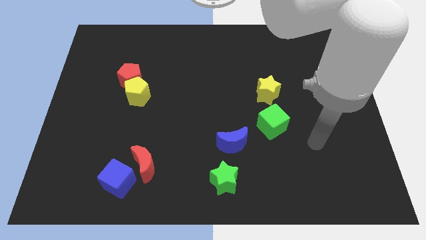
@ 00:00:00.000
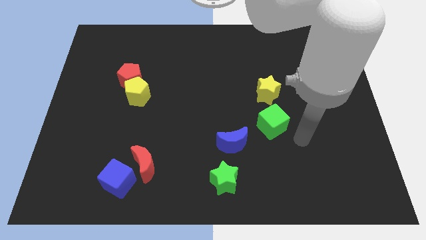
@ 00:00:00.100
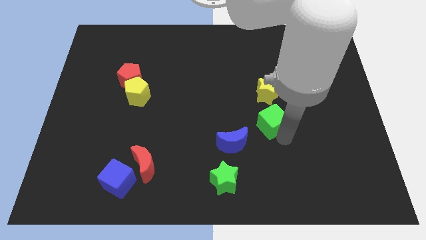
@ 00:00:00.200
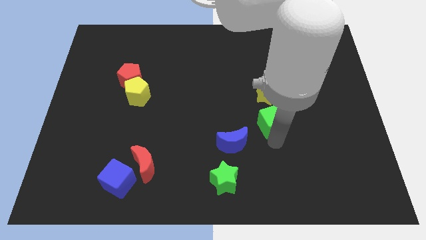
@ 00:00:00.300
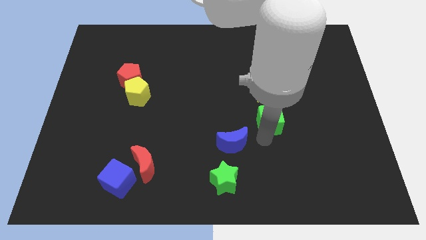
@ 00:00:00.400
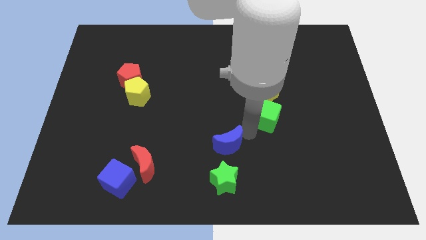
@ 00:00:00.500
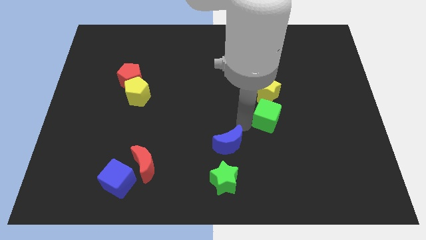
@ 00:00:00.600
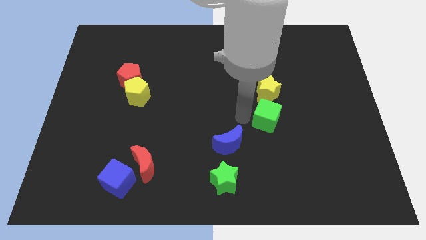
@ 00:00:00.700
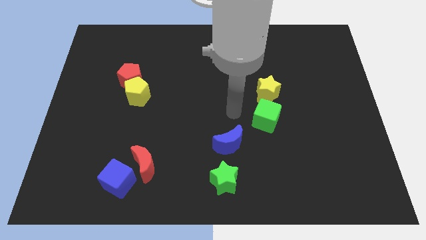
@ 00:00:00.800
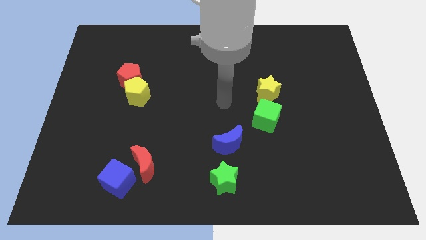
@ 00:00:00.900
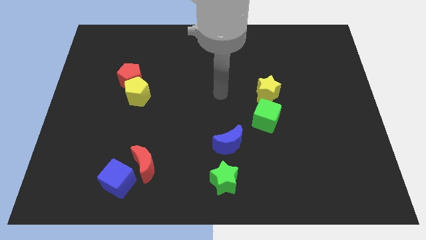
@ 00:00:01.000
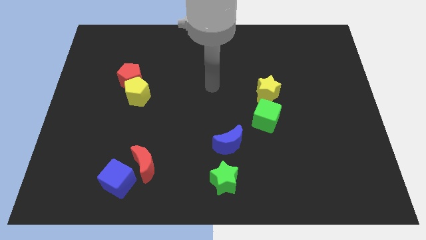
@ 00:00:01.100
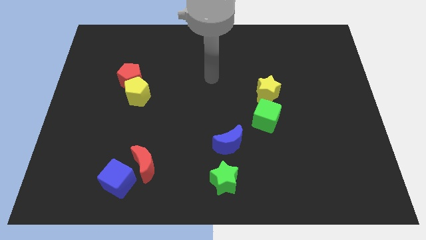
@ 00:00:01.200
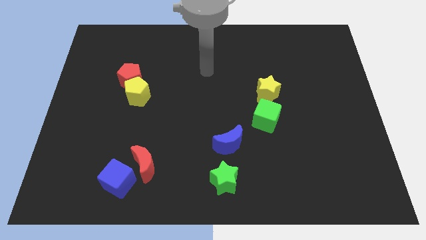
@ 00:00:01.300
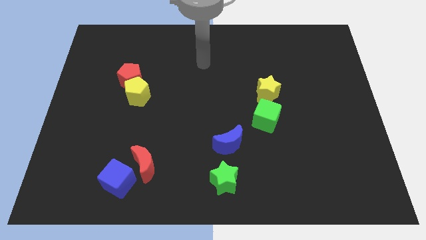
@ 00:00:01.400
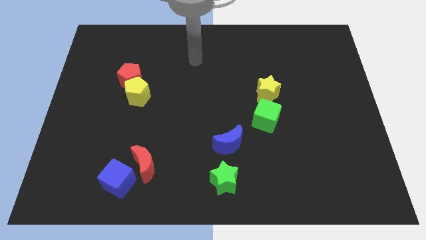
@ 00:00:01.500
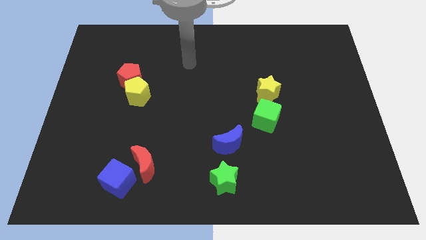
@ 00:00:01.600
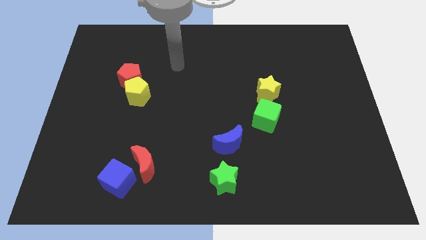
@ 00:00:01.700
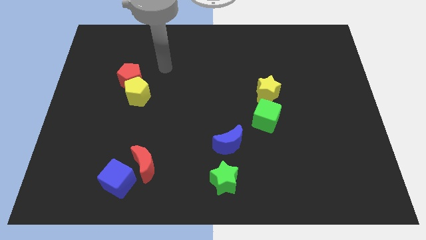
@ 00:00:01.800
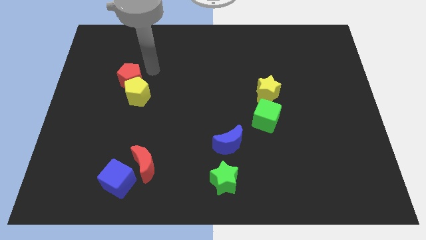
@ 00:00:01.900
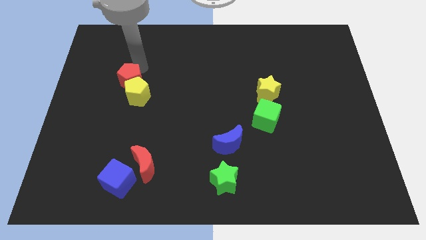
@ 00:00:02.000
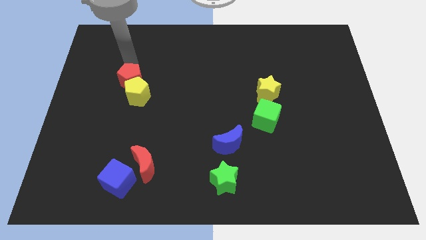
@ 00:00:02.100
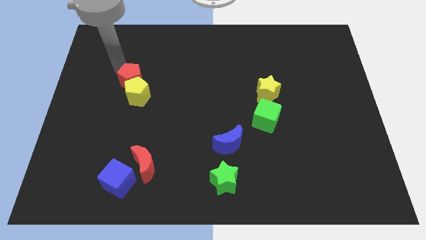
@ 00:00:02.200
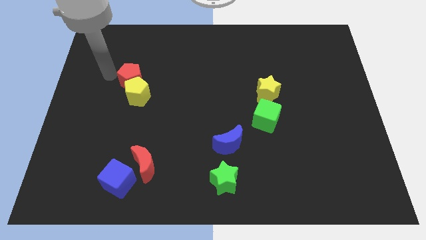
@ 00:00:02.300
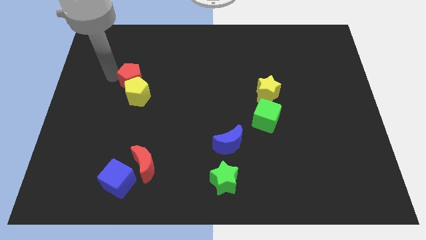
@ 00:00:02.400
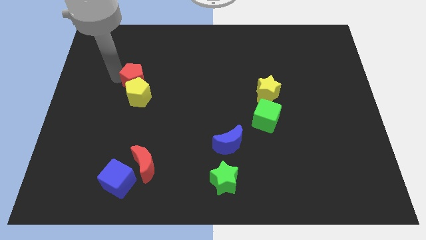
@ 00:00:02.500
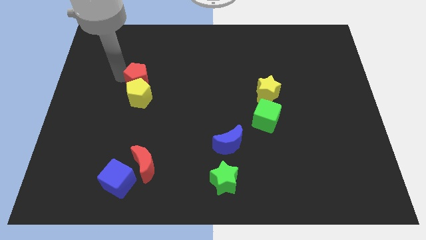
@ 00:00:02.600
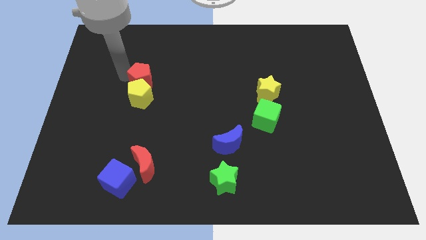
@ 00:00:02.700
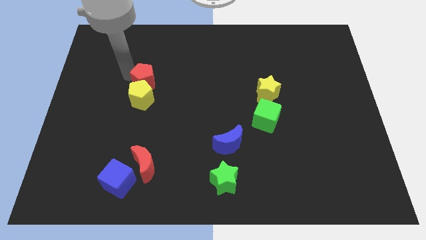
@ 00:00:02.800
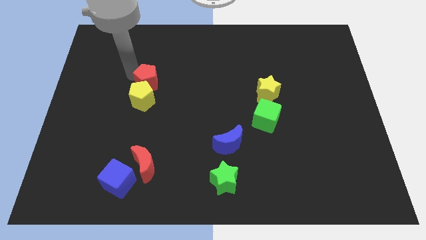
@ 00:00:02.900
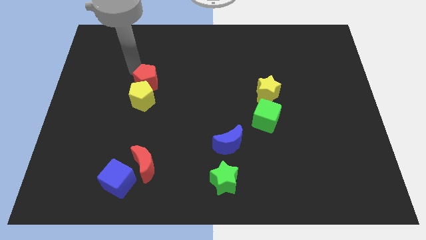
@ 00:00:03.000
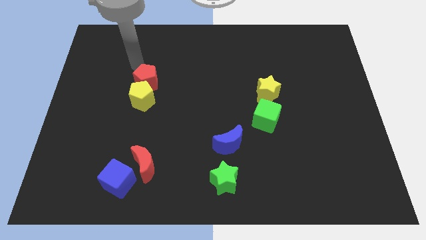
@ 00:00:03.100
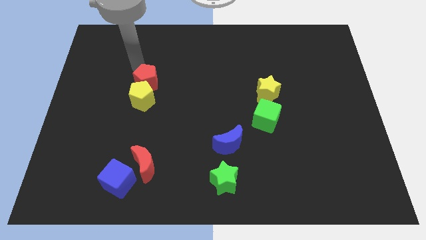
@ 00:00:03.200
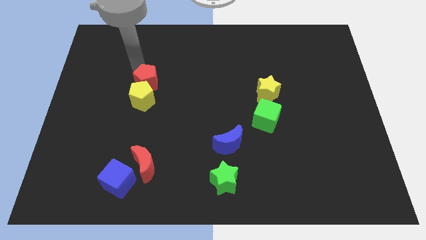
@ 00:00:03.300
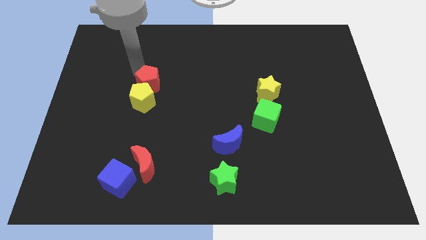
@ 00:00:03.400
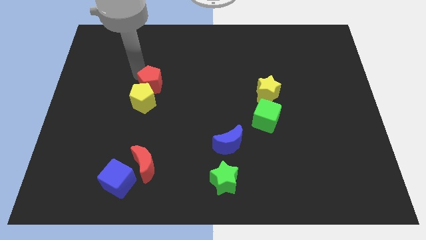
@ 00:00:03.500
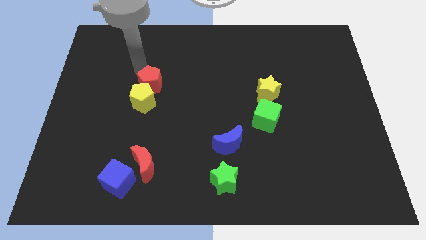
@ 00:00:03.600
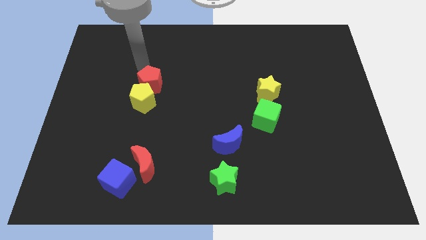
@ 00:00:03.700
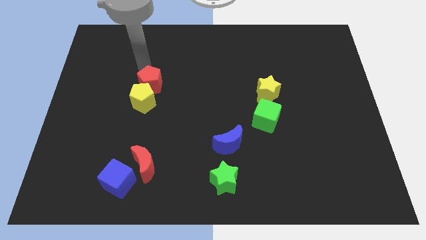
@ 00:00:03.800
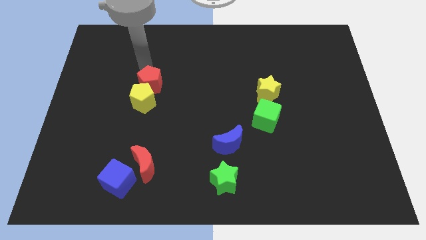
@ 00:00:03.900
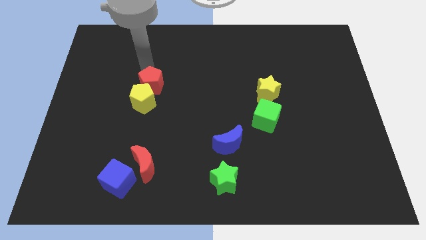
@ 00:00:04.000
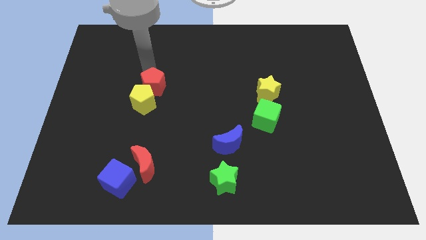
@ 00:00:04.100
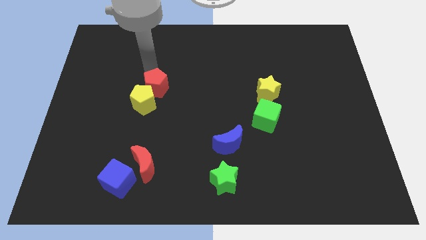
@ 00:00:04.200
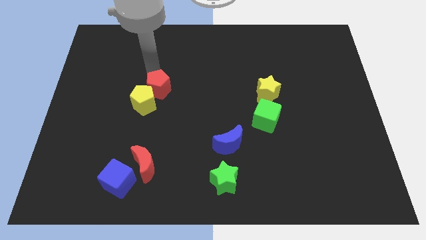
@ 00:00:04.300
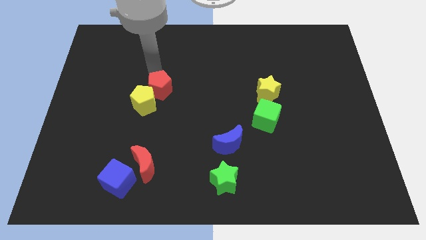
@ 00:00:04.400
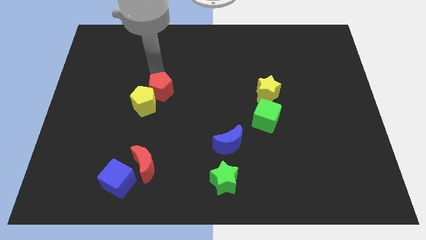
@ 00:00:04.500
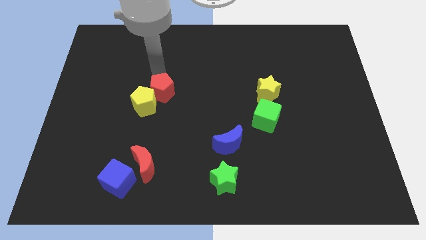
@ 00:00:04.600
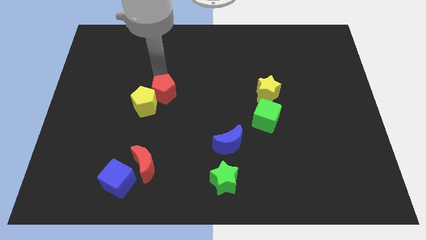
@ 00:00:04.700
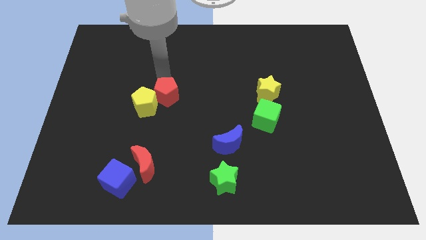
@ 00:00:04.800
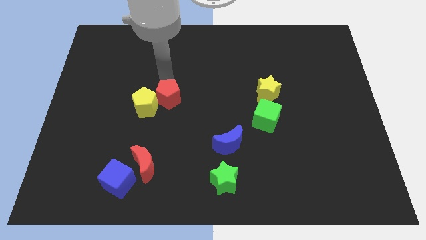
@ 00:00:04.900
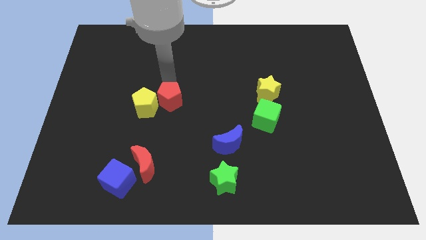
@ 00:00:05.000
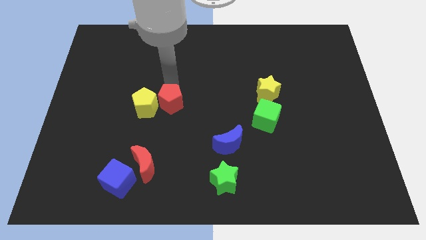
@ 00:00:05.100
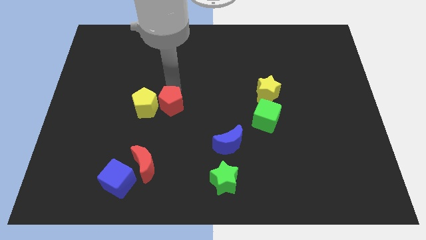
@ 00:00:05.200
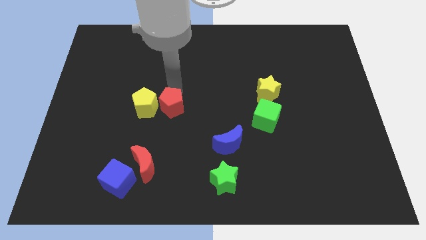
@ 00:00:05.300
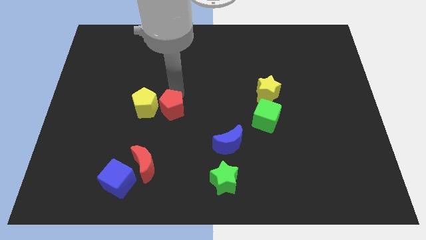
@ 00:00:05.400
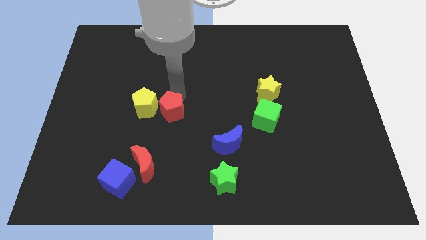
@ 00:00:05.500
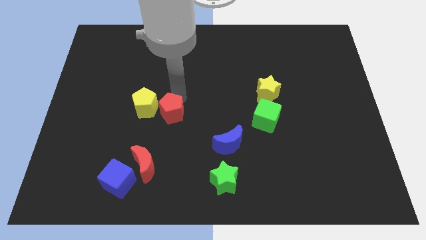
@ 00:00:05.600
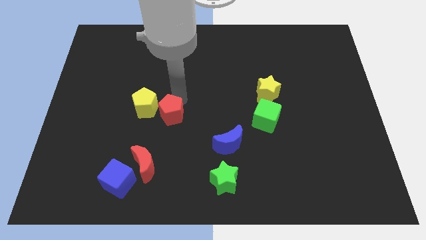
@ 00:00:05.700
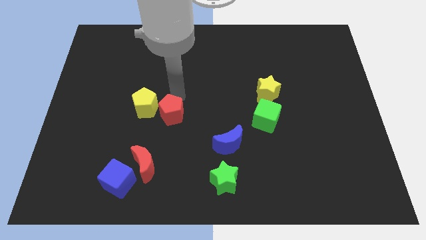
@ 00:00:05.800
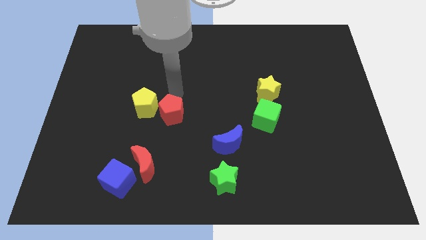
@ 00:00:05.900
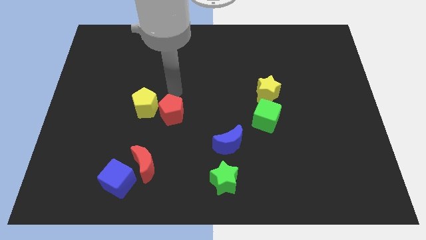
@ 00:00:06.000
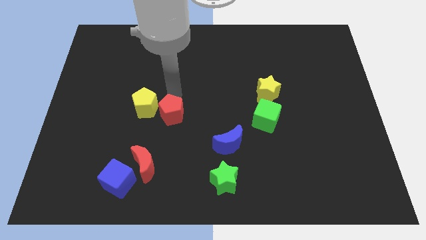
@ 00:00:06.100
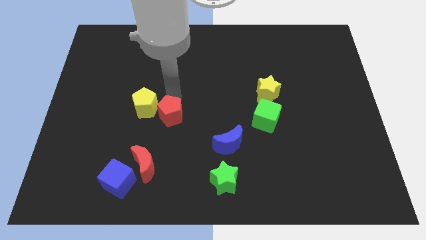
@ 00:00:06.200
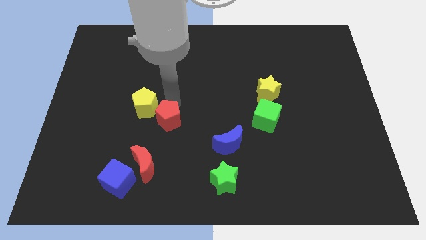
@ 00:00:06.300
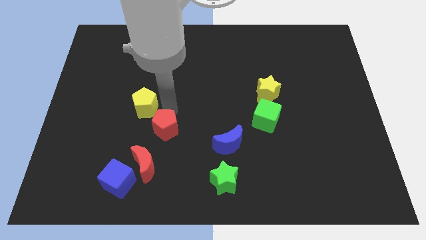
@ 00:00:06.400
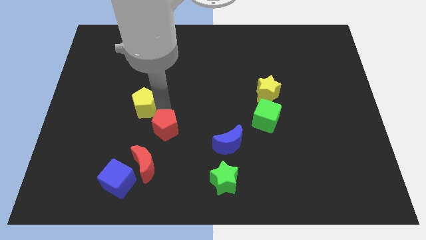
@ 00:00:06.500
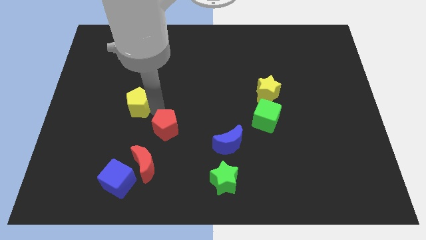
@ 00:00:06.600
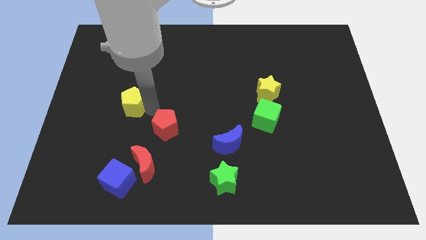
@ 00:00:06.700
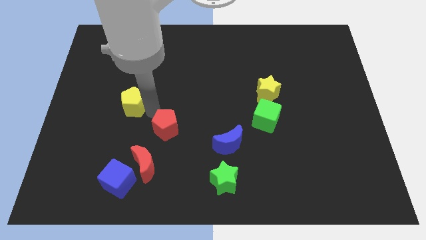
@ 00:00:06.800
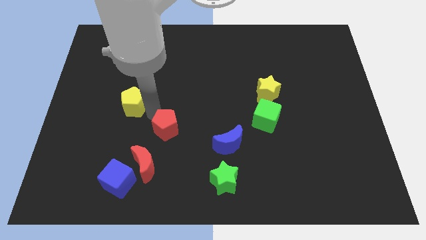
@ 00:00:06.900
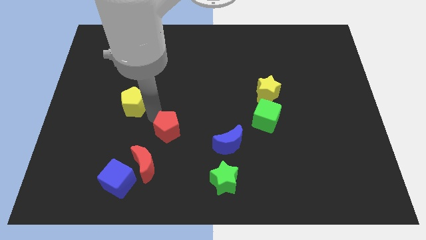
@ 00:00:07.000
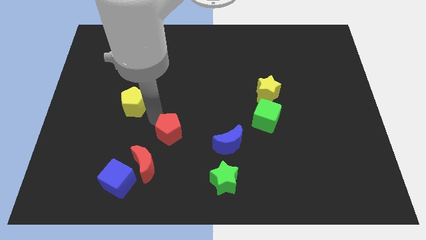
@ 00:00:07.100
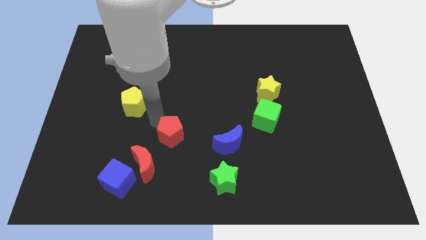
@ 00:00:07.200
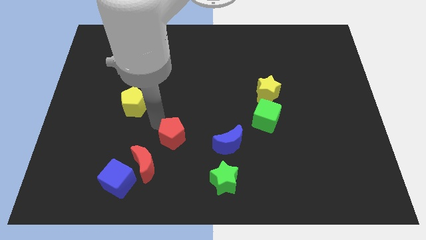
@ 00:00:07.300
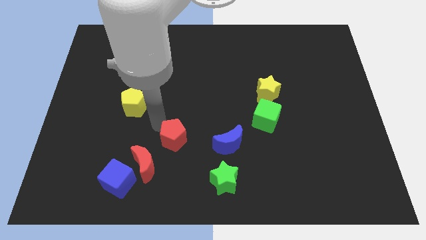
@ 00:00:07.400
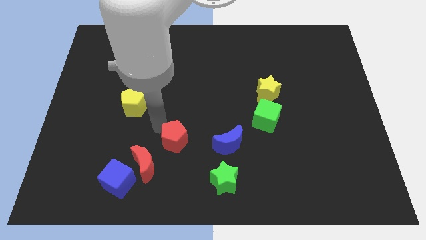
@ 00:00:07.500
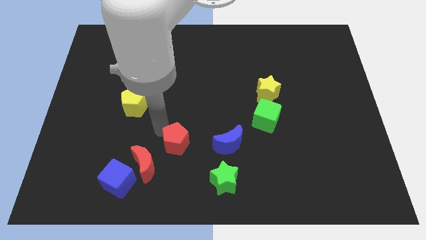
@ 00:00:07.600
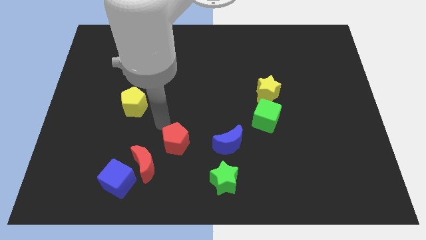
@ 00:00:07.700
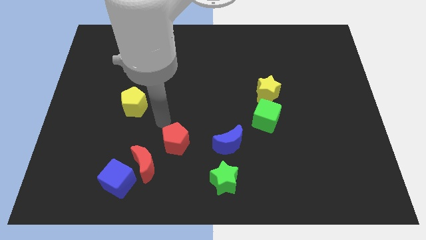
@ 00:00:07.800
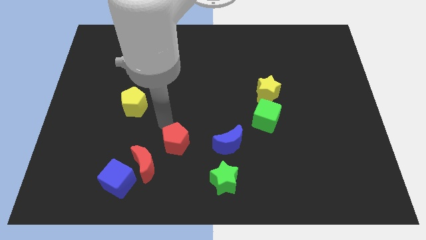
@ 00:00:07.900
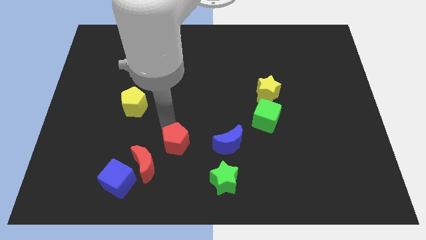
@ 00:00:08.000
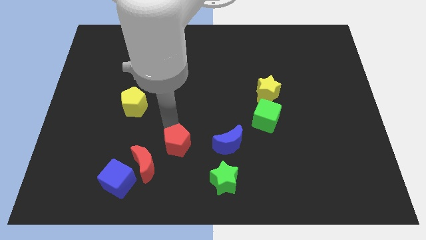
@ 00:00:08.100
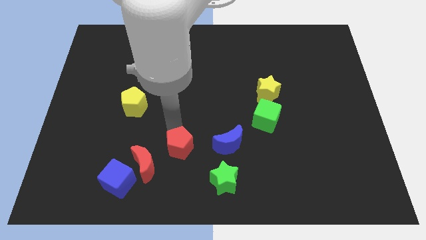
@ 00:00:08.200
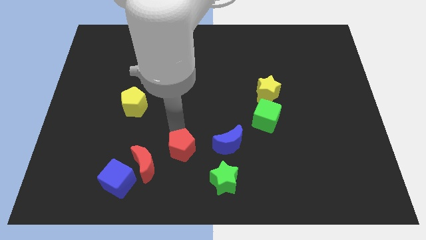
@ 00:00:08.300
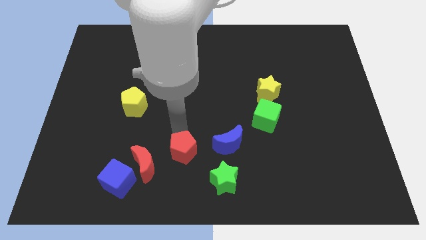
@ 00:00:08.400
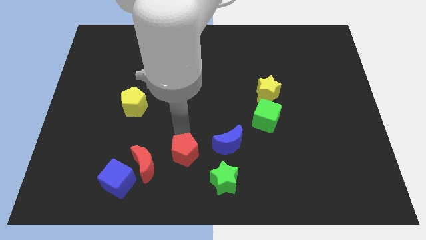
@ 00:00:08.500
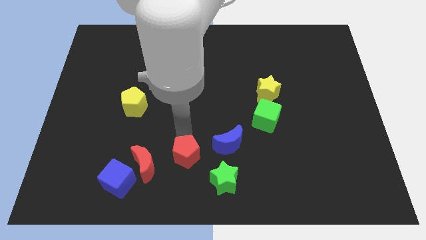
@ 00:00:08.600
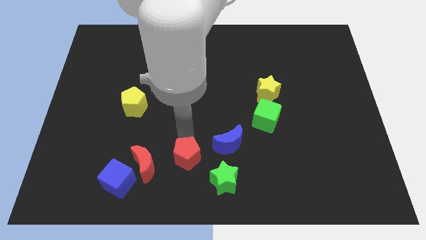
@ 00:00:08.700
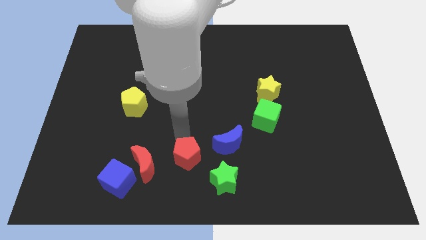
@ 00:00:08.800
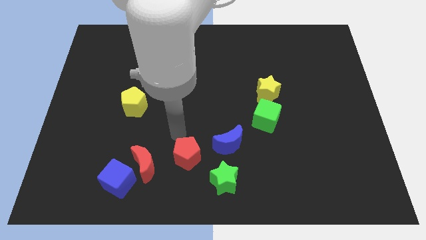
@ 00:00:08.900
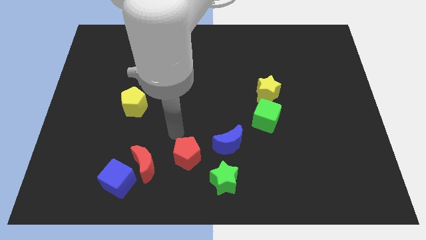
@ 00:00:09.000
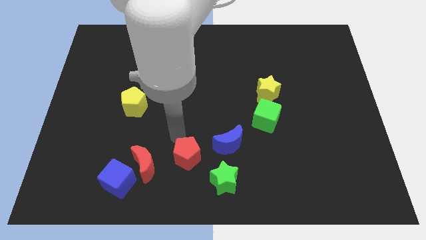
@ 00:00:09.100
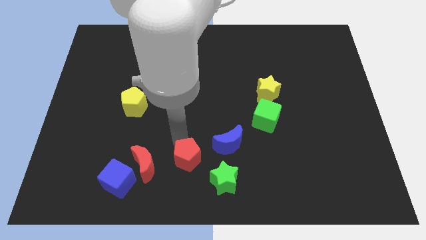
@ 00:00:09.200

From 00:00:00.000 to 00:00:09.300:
move the red pentagon to the bottom side
